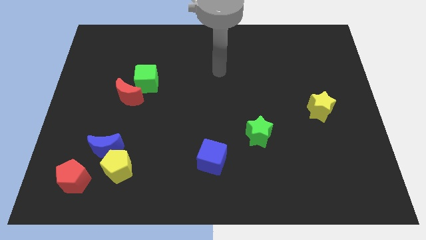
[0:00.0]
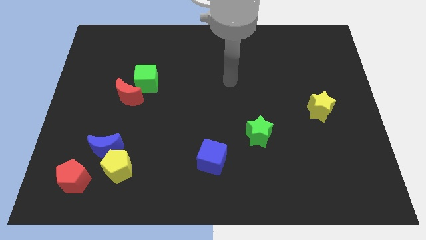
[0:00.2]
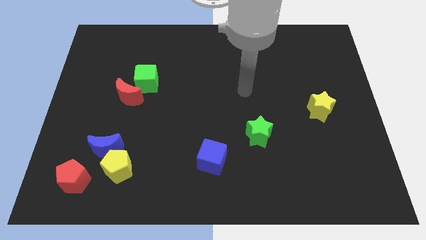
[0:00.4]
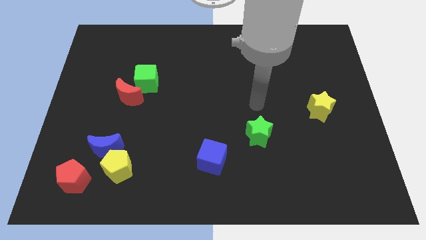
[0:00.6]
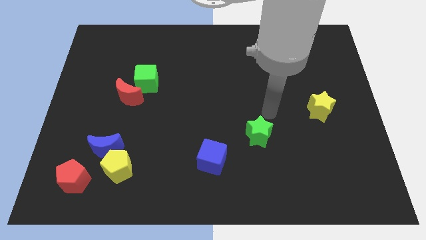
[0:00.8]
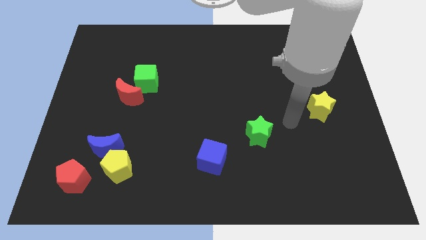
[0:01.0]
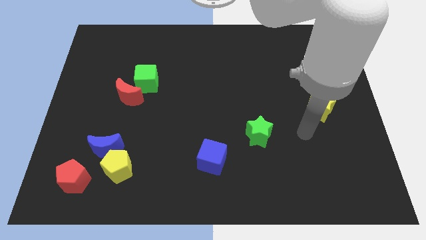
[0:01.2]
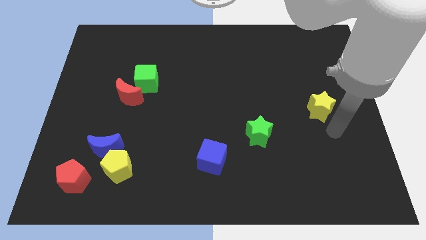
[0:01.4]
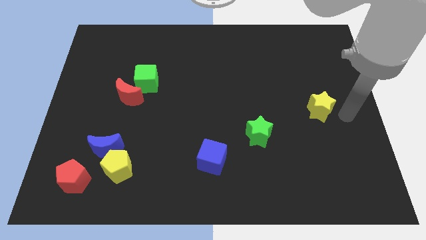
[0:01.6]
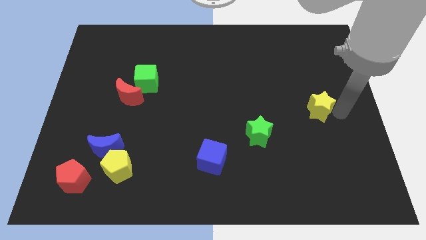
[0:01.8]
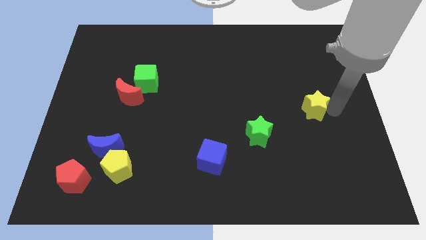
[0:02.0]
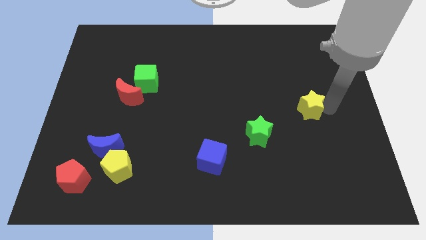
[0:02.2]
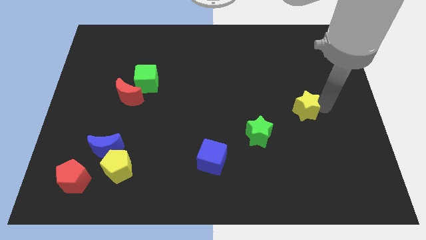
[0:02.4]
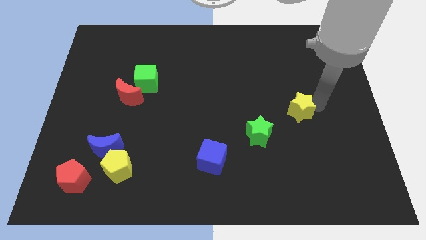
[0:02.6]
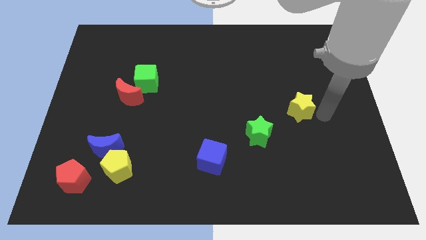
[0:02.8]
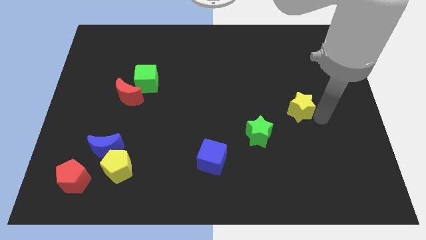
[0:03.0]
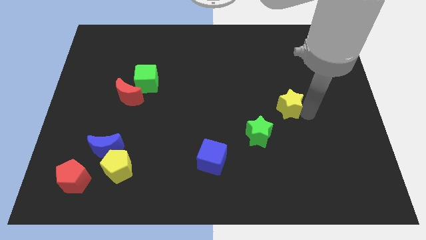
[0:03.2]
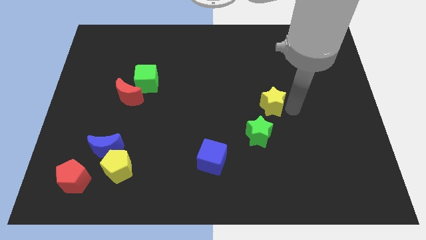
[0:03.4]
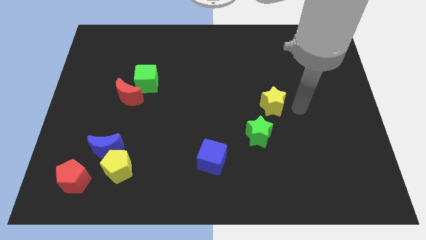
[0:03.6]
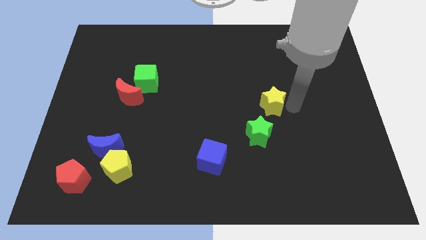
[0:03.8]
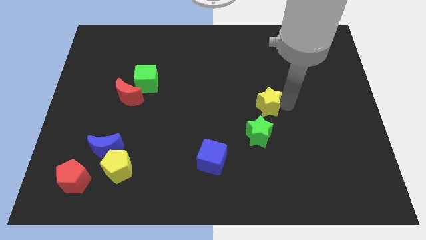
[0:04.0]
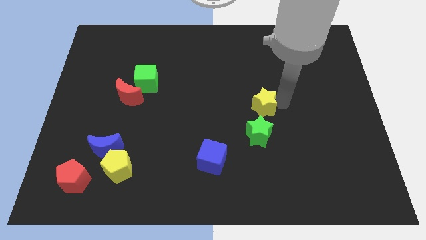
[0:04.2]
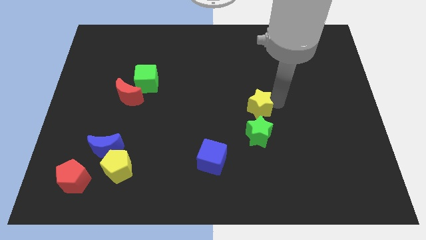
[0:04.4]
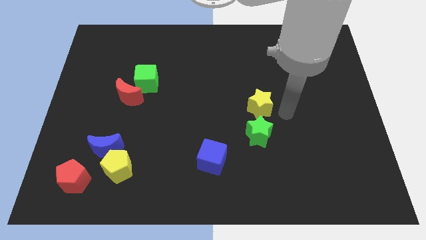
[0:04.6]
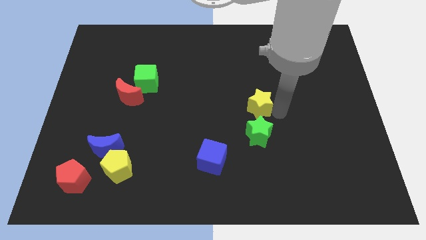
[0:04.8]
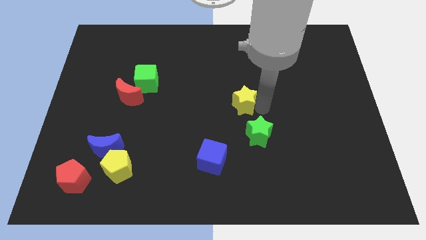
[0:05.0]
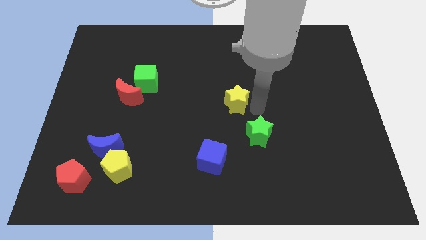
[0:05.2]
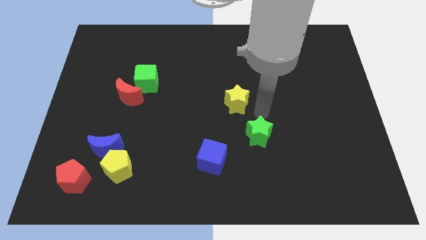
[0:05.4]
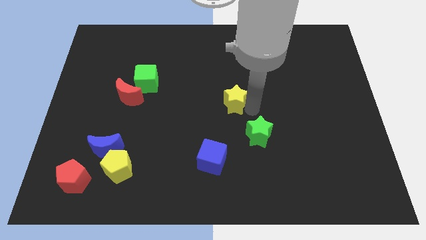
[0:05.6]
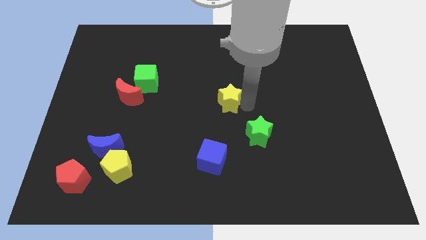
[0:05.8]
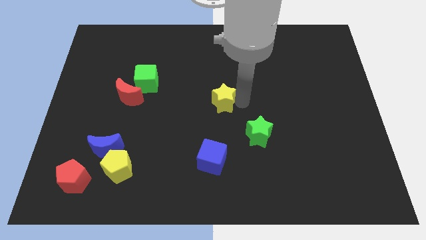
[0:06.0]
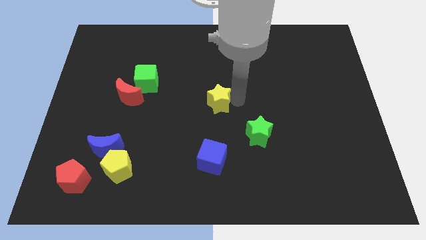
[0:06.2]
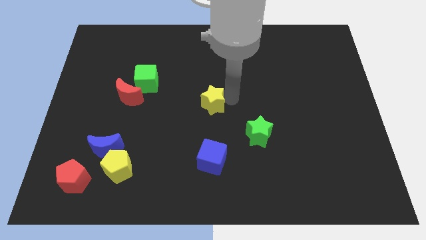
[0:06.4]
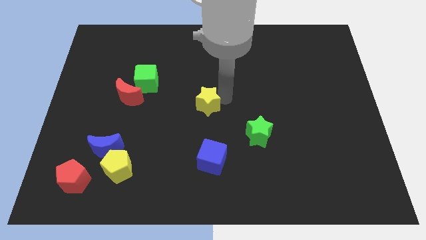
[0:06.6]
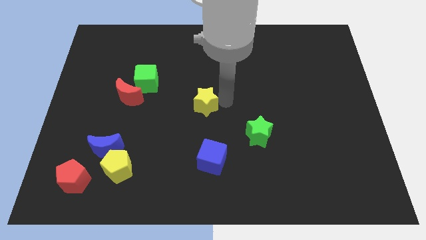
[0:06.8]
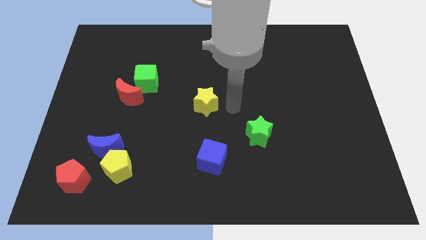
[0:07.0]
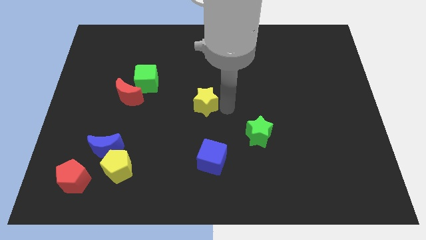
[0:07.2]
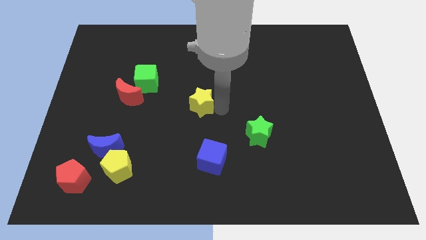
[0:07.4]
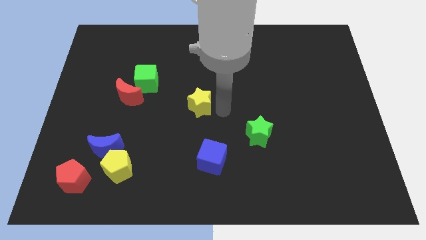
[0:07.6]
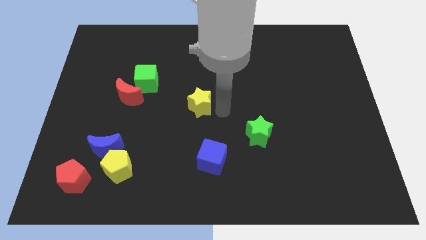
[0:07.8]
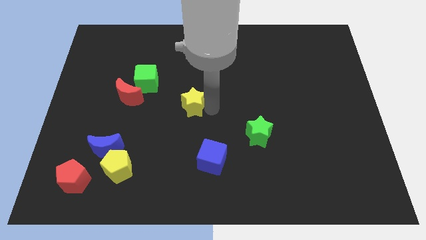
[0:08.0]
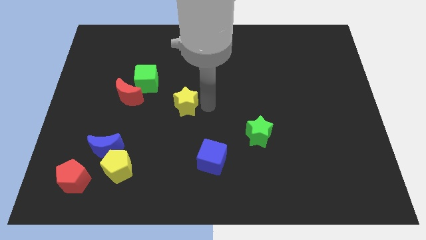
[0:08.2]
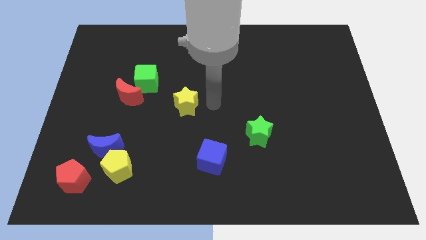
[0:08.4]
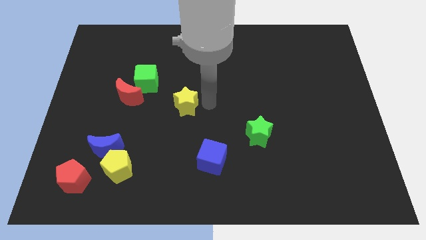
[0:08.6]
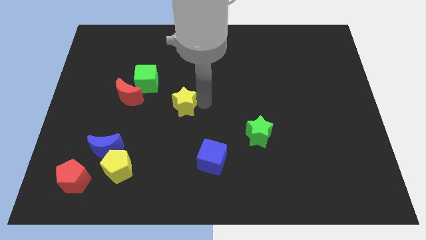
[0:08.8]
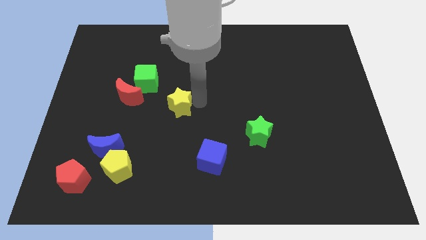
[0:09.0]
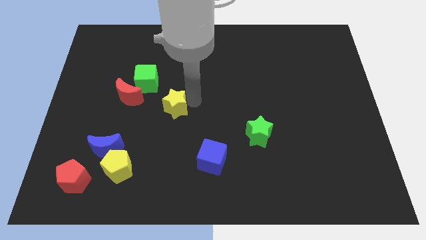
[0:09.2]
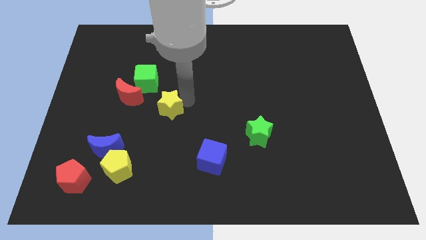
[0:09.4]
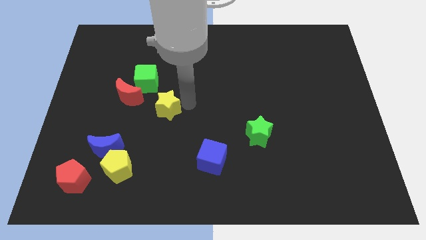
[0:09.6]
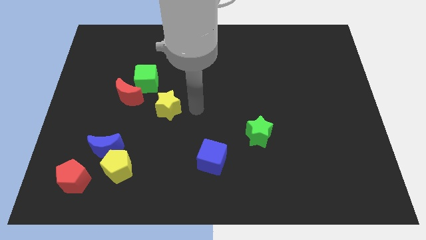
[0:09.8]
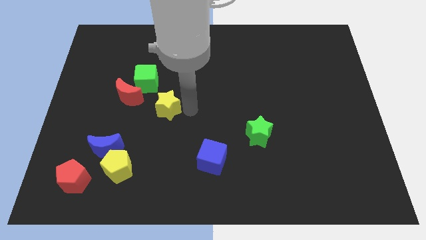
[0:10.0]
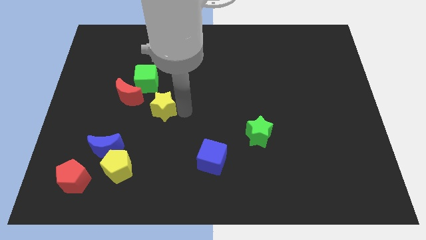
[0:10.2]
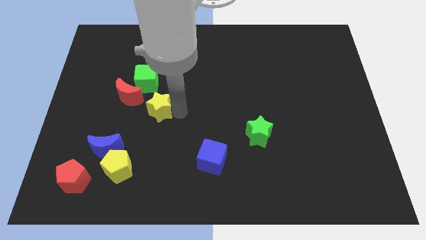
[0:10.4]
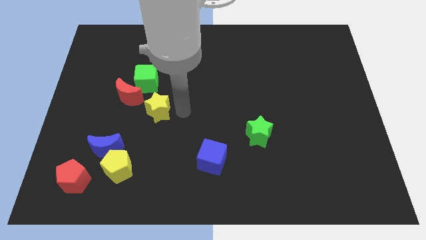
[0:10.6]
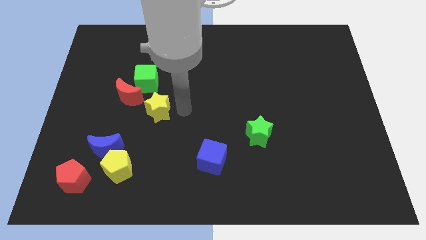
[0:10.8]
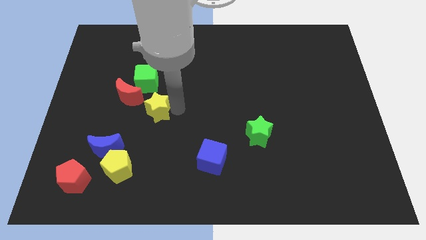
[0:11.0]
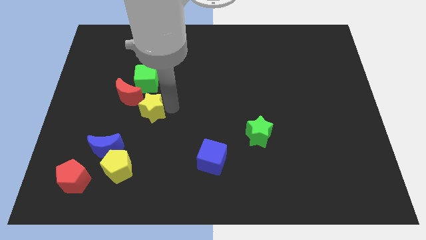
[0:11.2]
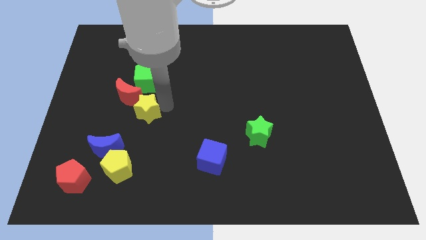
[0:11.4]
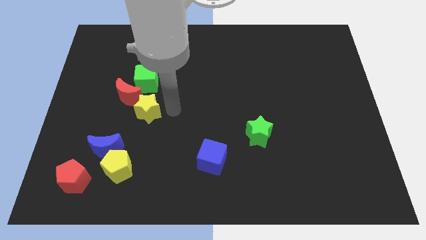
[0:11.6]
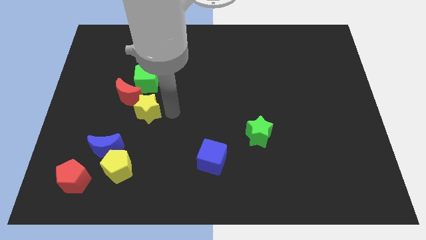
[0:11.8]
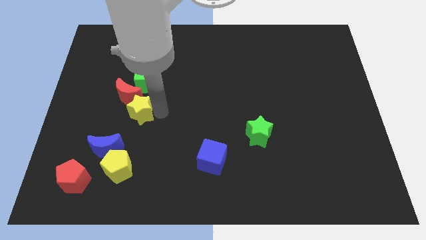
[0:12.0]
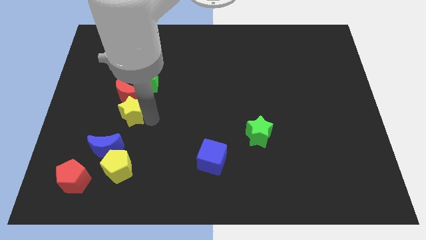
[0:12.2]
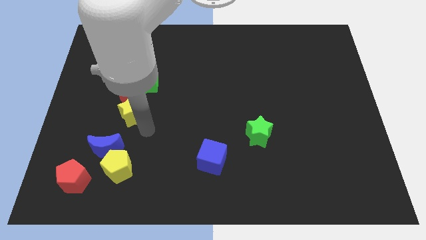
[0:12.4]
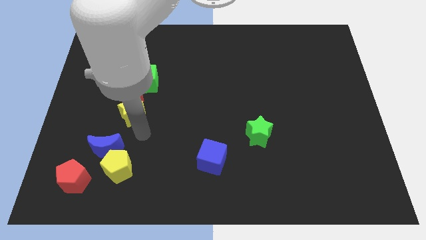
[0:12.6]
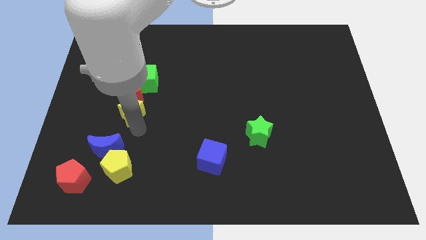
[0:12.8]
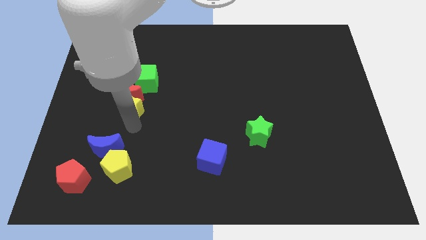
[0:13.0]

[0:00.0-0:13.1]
move the yellow star to the bottom left side of the green cube
